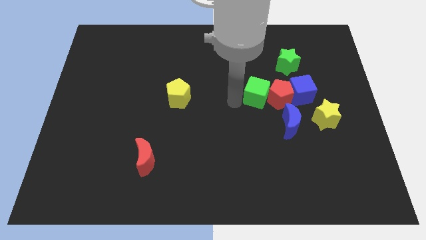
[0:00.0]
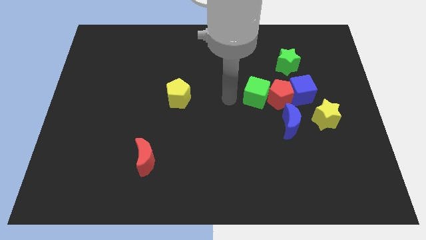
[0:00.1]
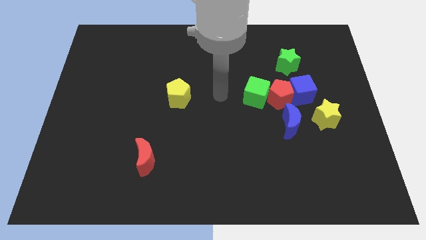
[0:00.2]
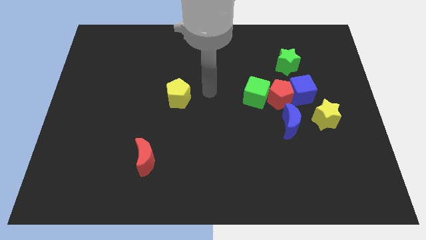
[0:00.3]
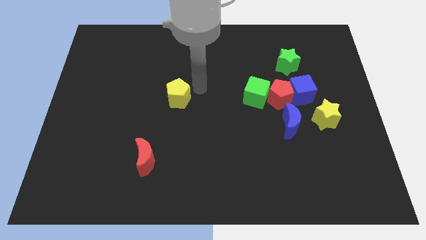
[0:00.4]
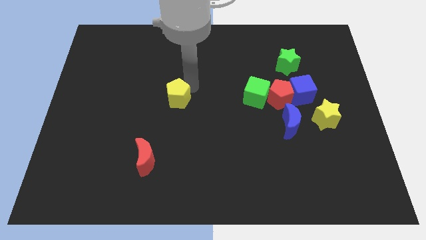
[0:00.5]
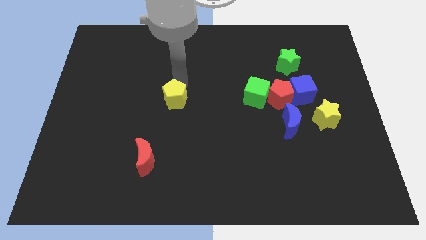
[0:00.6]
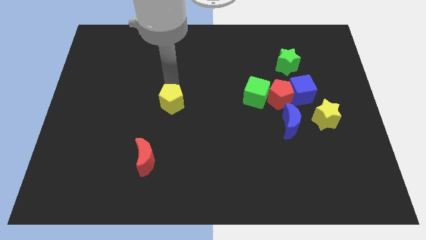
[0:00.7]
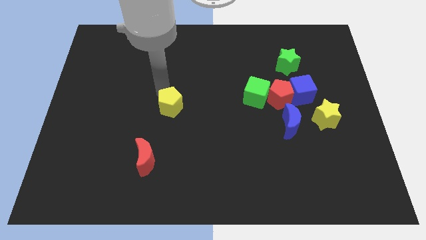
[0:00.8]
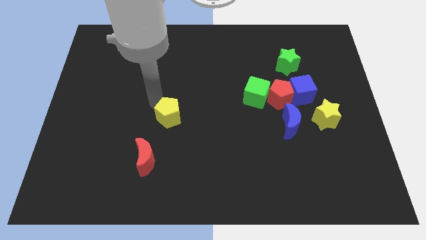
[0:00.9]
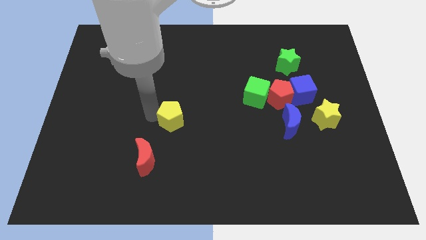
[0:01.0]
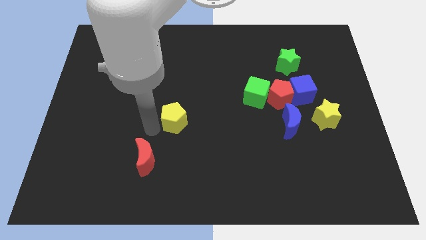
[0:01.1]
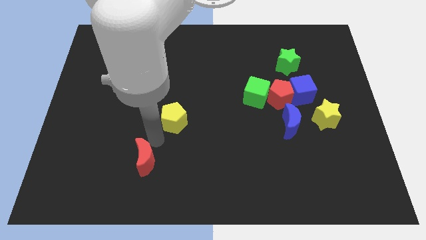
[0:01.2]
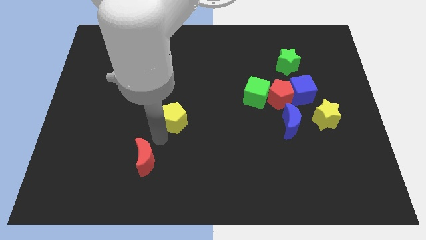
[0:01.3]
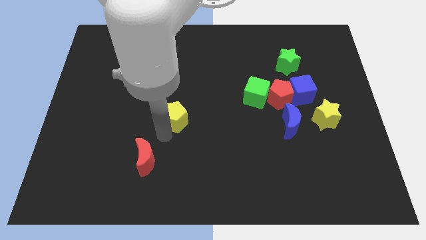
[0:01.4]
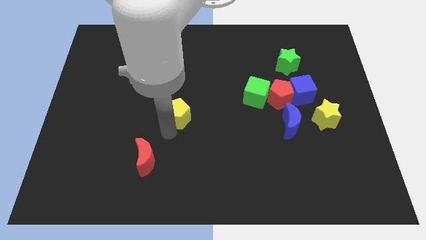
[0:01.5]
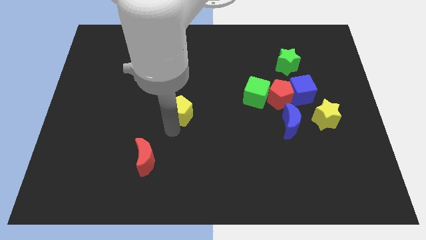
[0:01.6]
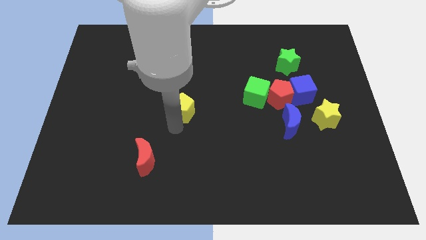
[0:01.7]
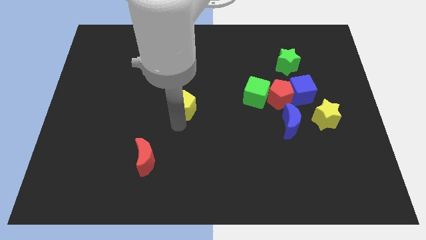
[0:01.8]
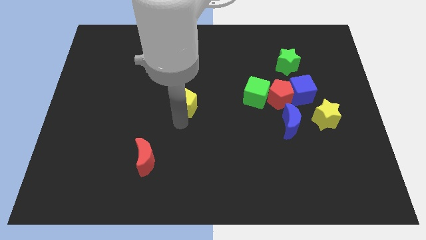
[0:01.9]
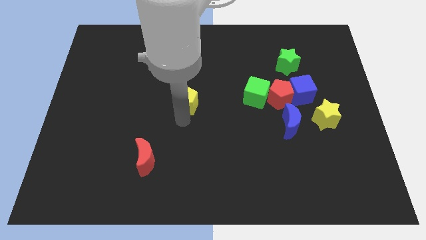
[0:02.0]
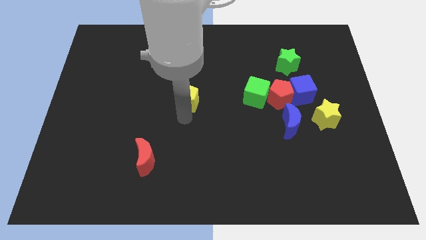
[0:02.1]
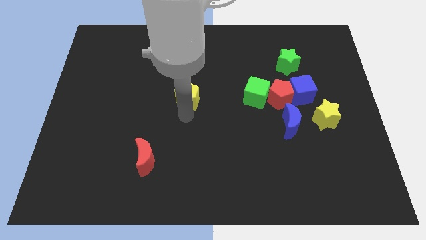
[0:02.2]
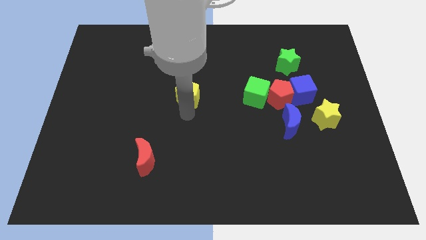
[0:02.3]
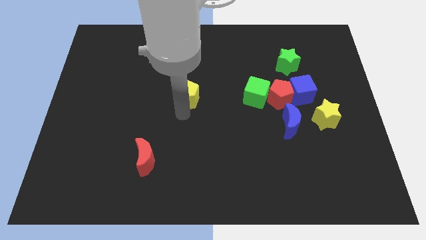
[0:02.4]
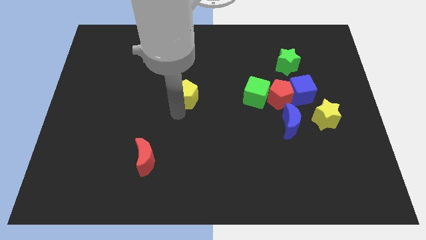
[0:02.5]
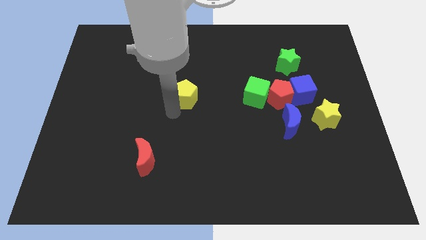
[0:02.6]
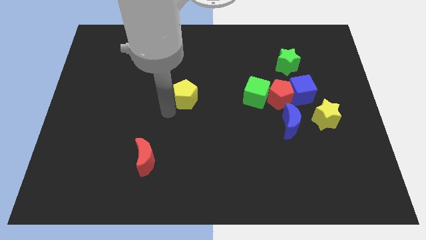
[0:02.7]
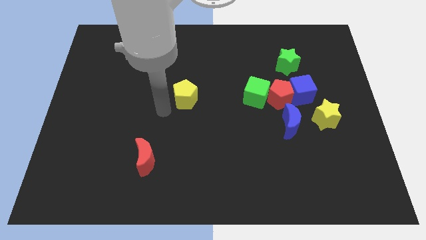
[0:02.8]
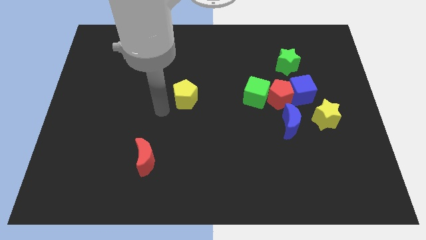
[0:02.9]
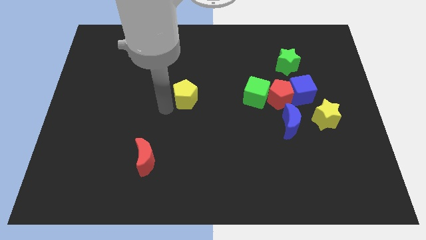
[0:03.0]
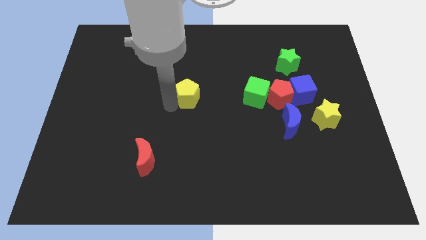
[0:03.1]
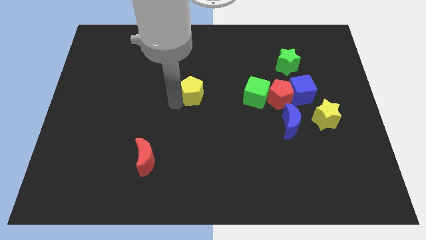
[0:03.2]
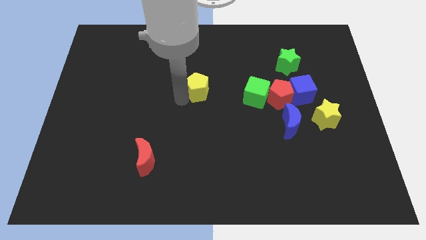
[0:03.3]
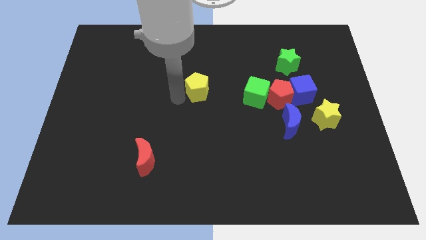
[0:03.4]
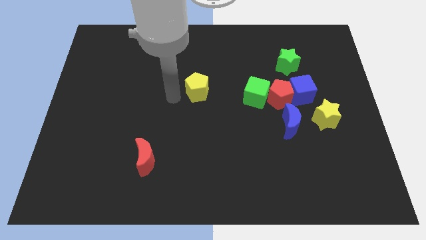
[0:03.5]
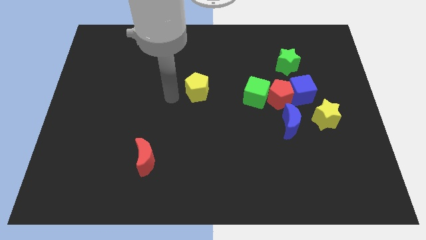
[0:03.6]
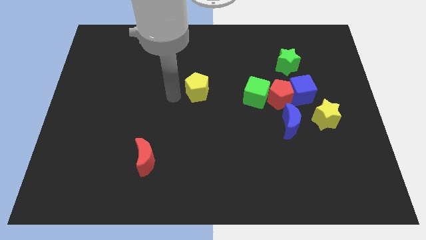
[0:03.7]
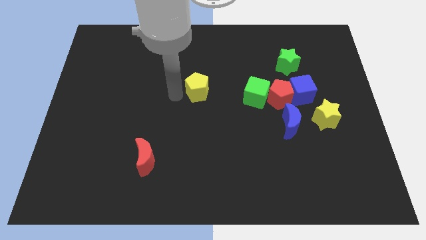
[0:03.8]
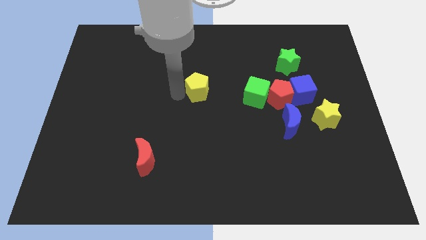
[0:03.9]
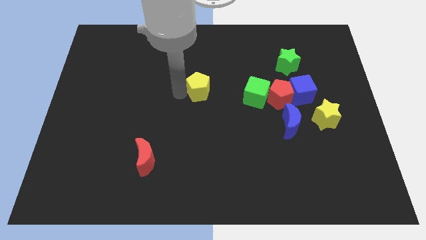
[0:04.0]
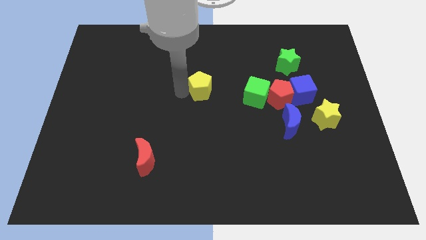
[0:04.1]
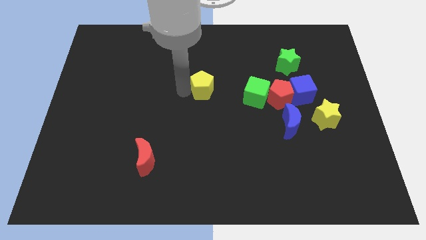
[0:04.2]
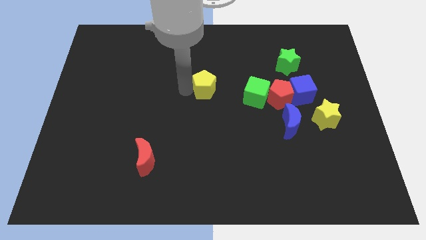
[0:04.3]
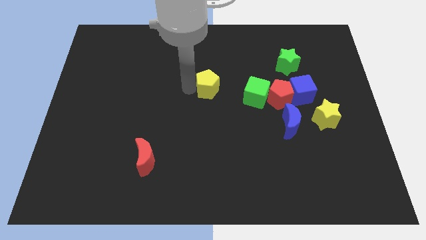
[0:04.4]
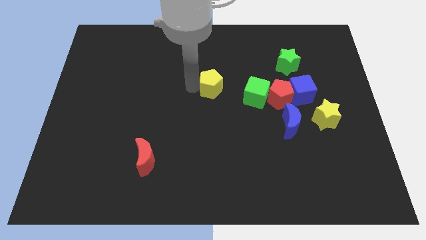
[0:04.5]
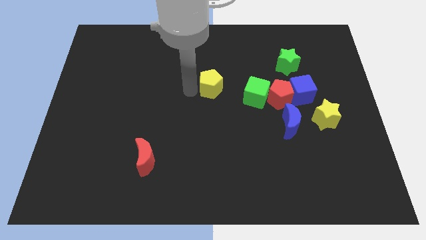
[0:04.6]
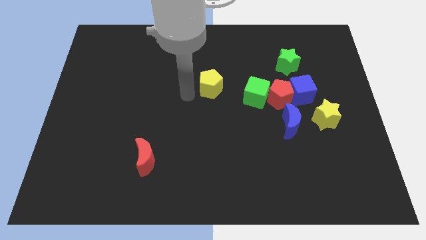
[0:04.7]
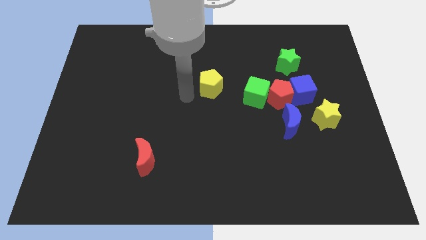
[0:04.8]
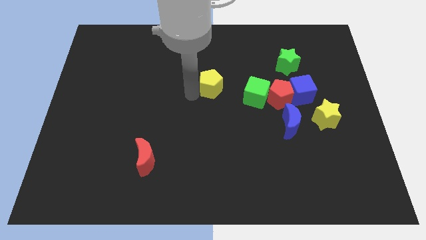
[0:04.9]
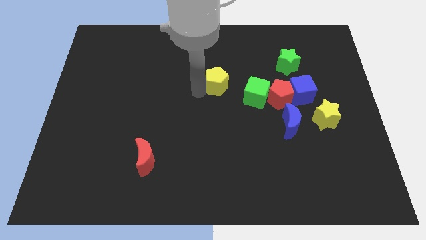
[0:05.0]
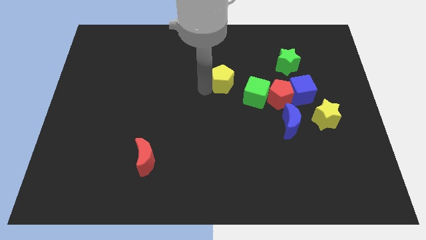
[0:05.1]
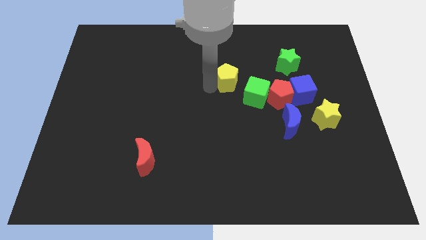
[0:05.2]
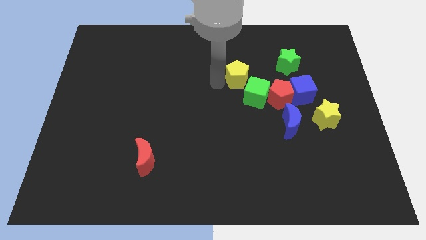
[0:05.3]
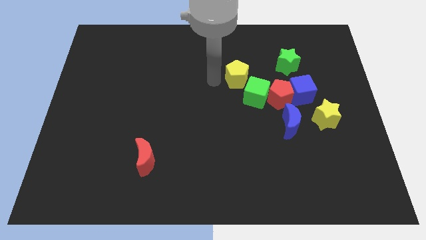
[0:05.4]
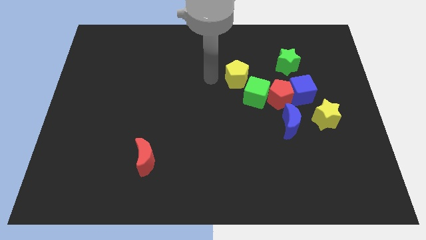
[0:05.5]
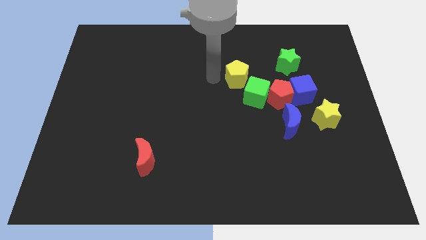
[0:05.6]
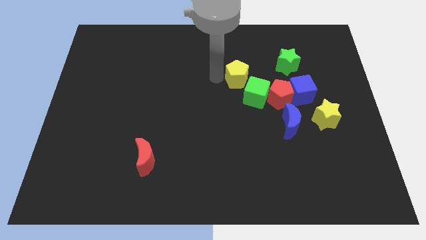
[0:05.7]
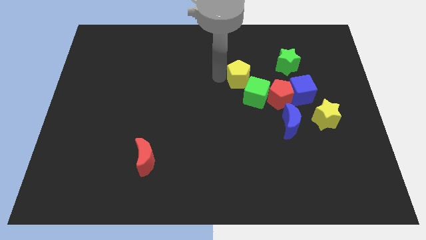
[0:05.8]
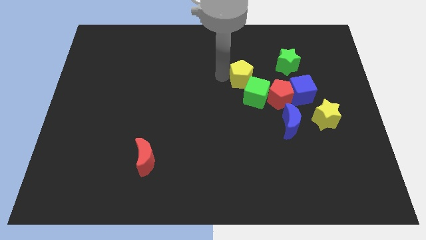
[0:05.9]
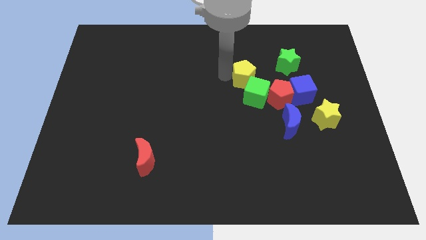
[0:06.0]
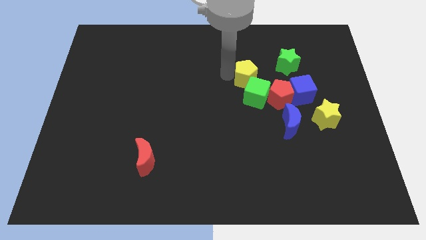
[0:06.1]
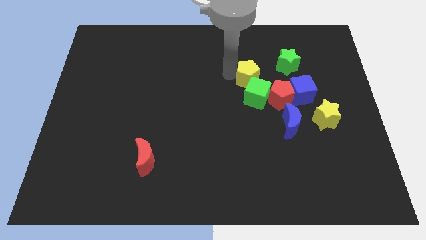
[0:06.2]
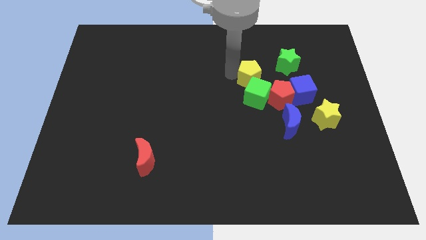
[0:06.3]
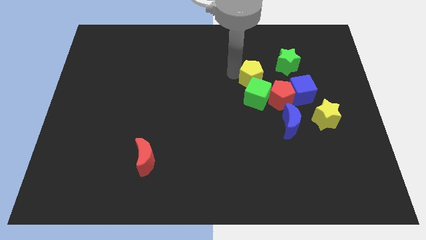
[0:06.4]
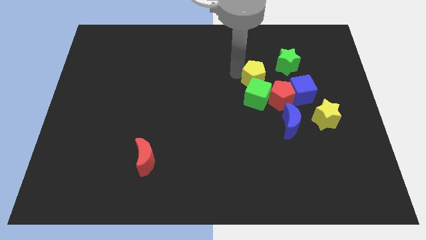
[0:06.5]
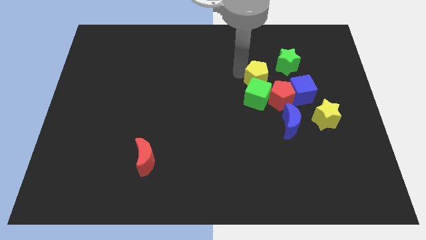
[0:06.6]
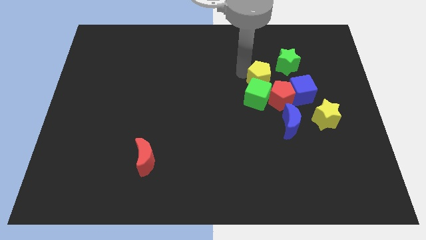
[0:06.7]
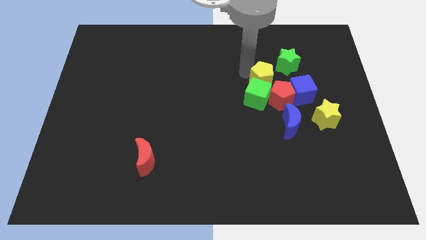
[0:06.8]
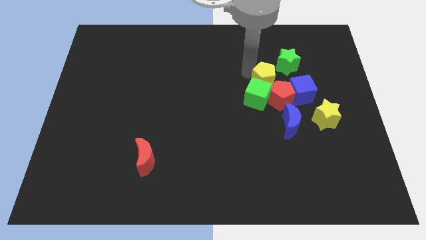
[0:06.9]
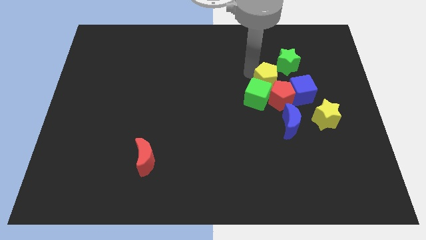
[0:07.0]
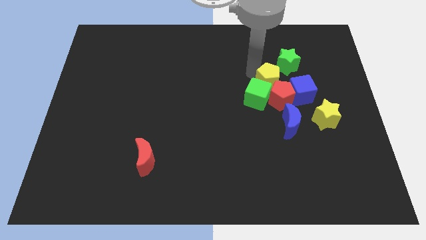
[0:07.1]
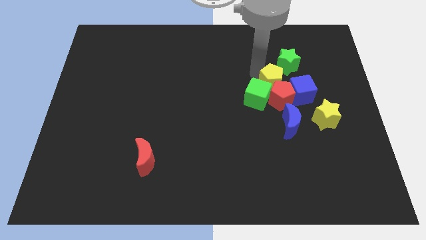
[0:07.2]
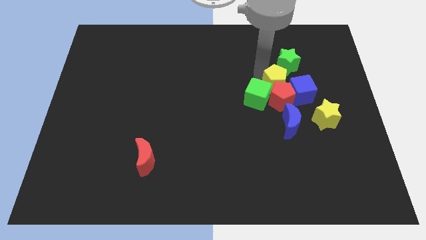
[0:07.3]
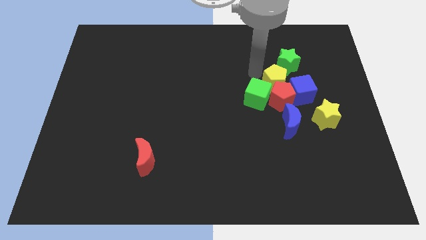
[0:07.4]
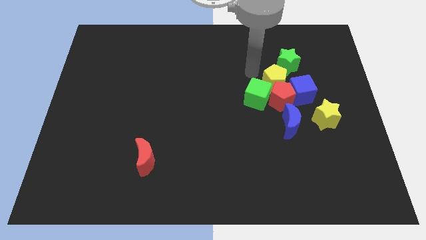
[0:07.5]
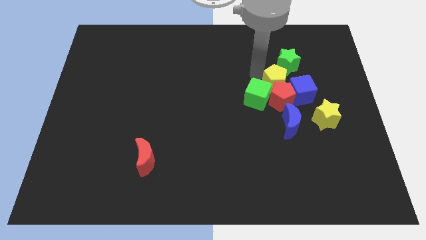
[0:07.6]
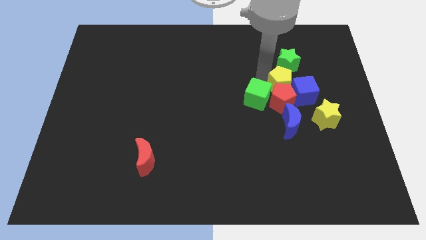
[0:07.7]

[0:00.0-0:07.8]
put the yellow pentagon close to the blue cube
